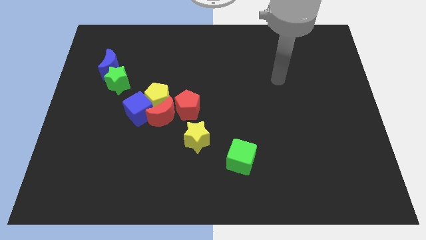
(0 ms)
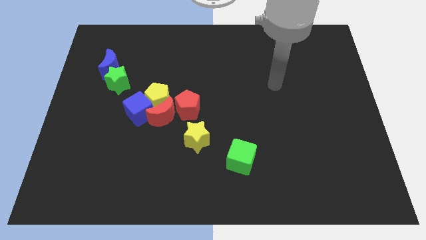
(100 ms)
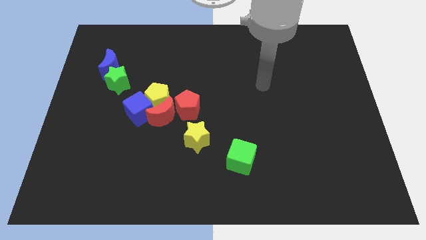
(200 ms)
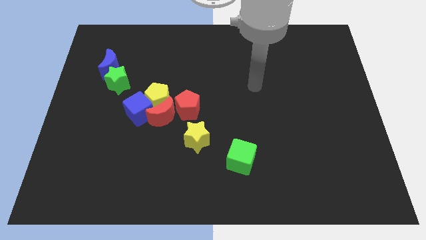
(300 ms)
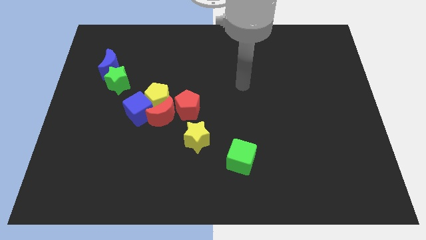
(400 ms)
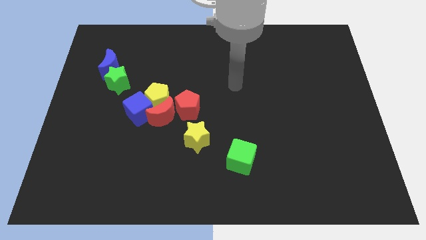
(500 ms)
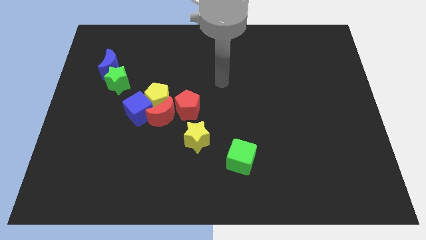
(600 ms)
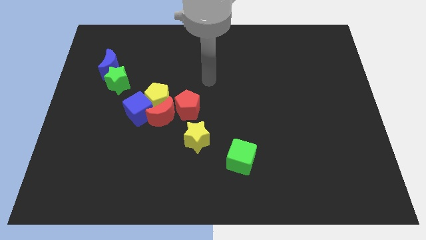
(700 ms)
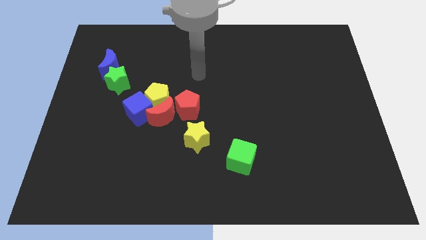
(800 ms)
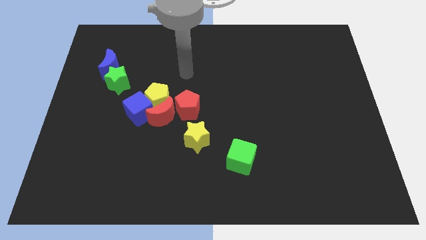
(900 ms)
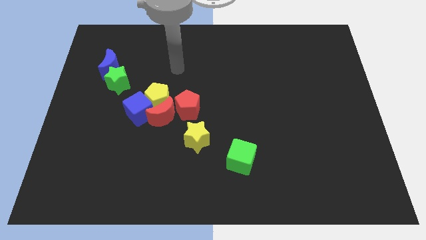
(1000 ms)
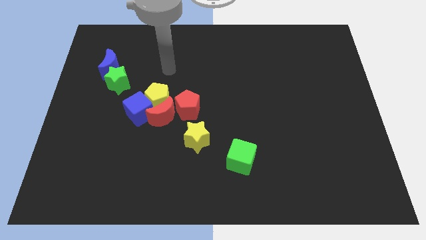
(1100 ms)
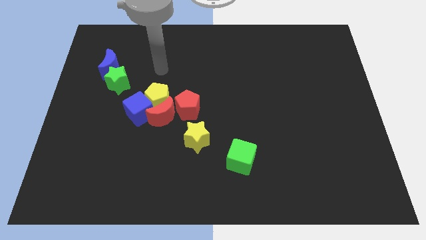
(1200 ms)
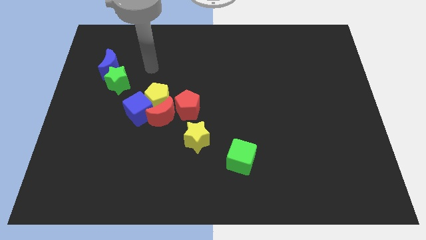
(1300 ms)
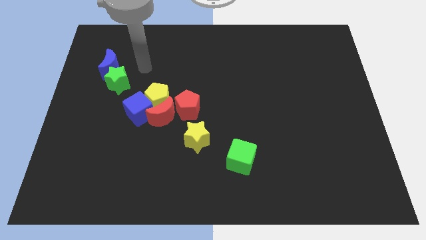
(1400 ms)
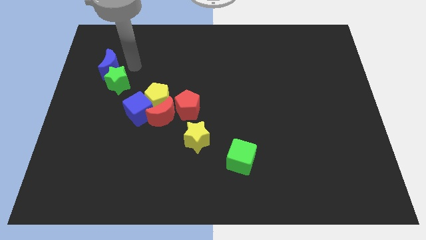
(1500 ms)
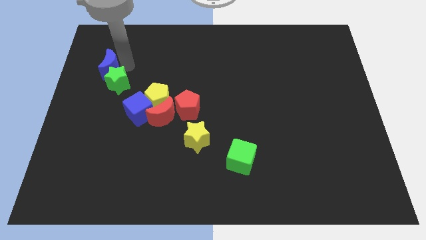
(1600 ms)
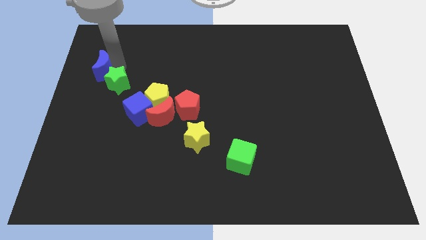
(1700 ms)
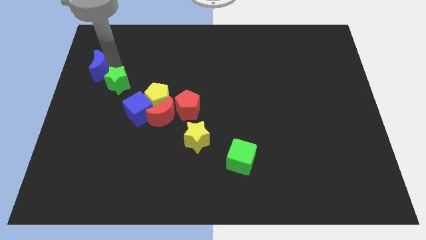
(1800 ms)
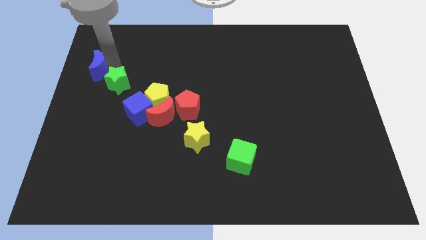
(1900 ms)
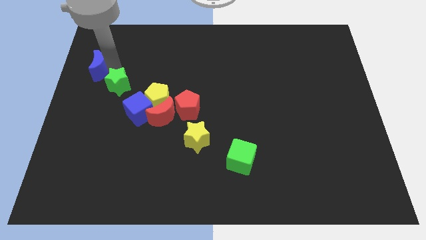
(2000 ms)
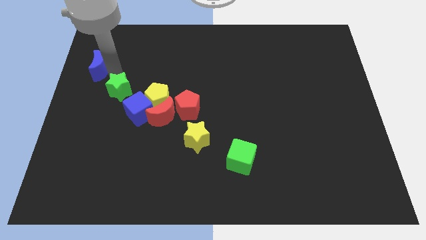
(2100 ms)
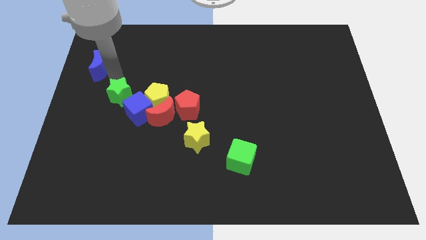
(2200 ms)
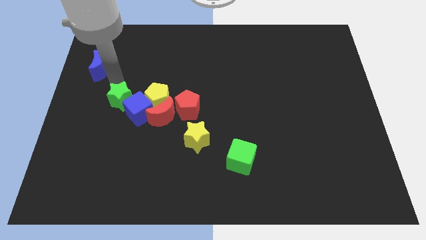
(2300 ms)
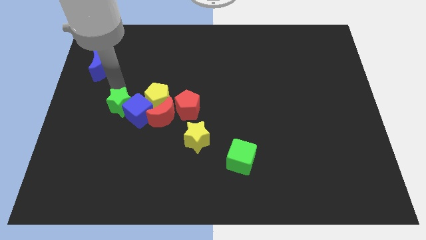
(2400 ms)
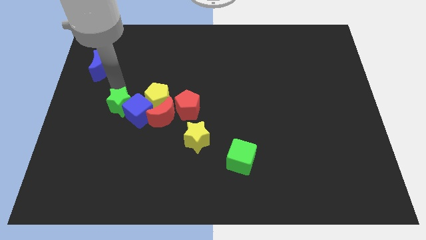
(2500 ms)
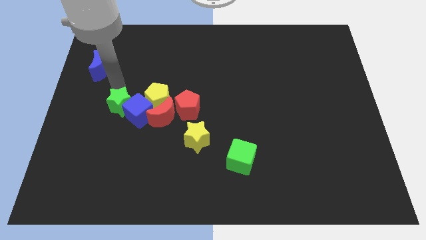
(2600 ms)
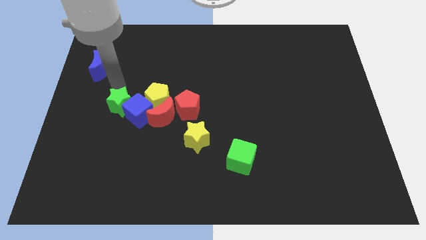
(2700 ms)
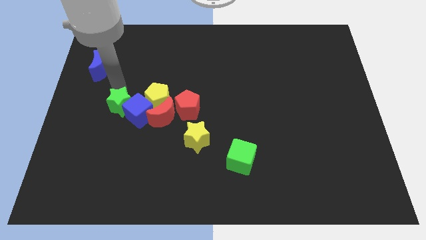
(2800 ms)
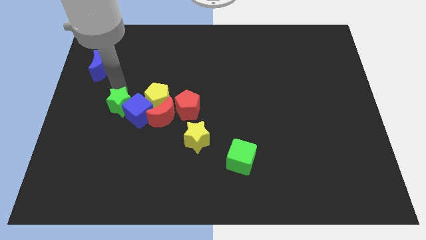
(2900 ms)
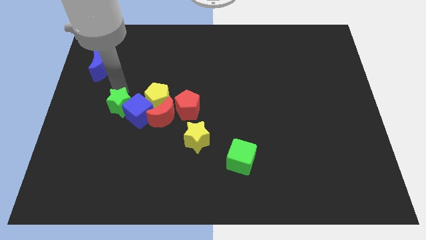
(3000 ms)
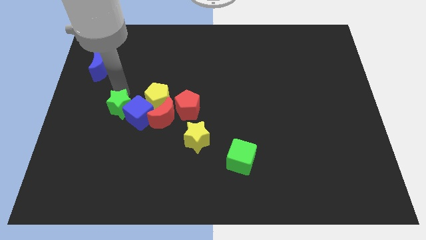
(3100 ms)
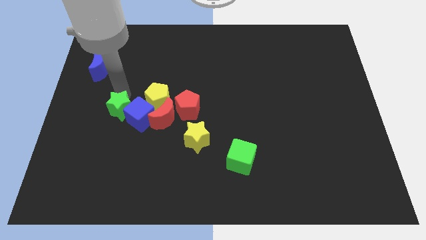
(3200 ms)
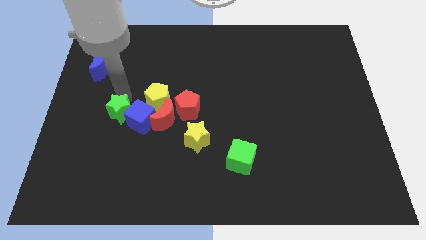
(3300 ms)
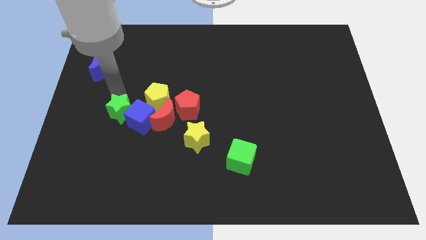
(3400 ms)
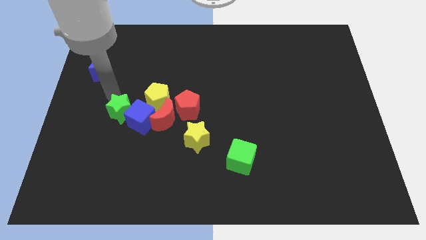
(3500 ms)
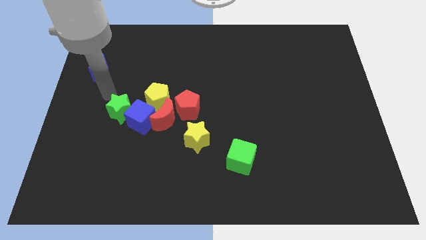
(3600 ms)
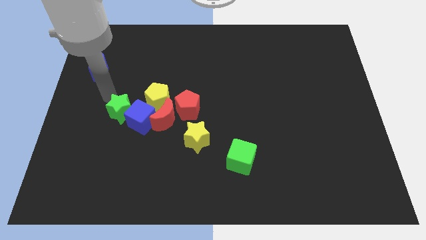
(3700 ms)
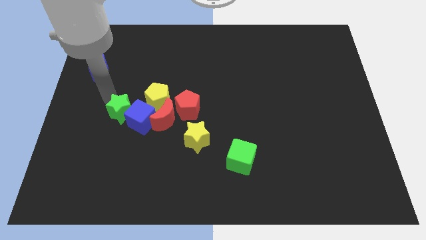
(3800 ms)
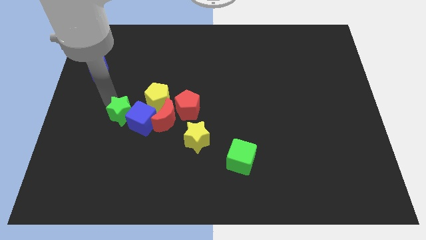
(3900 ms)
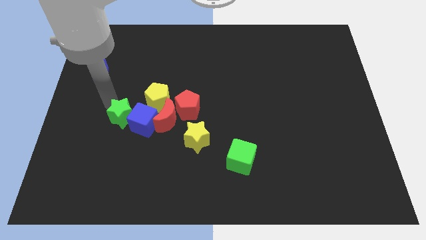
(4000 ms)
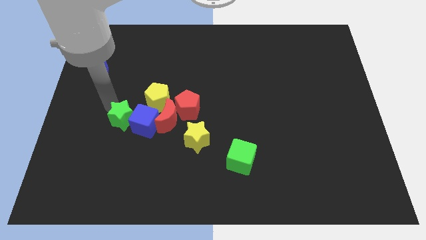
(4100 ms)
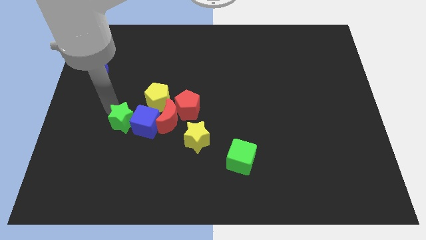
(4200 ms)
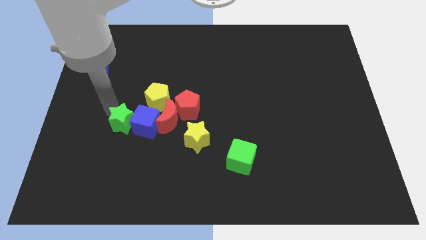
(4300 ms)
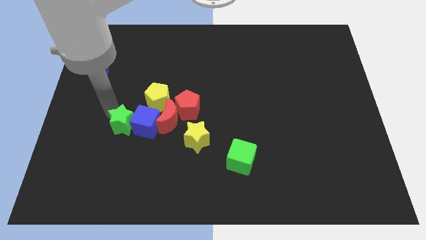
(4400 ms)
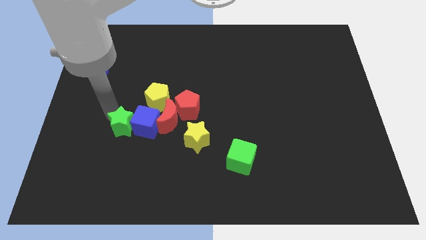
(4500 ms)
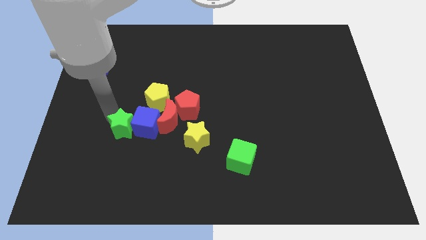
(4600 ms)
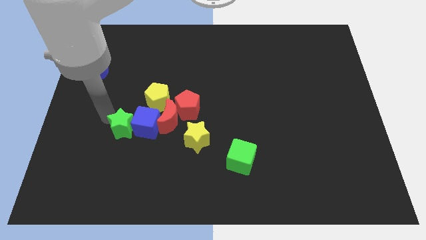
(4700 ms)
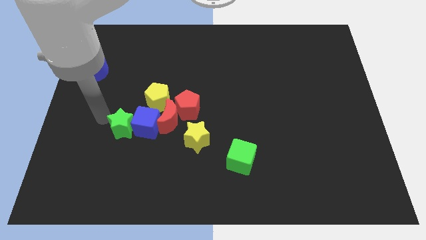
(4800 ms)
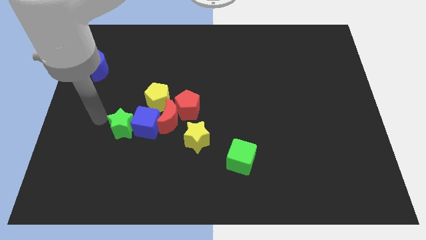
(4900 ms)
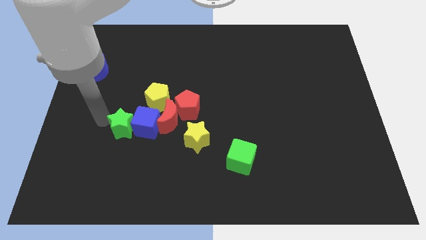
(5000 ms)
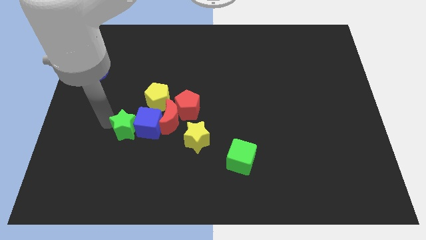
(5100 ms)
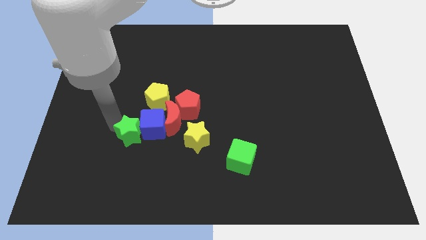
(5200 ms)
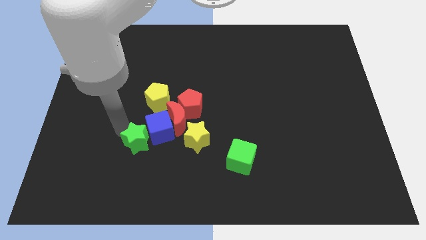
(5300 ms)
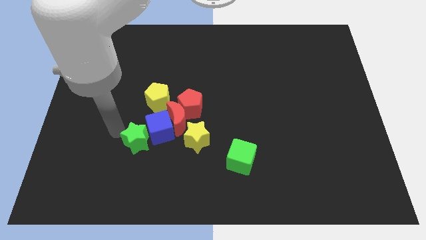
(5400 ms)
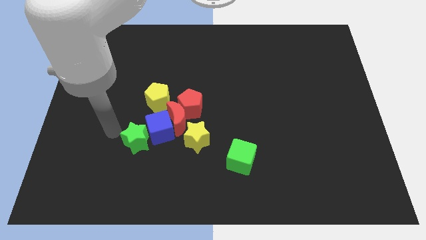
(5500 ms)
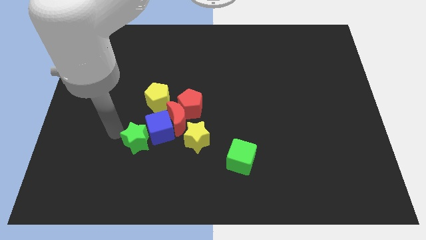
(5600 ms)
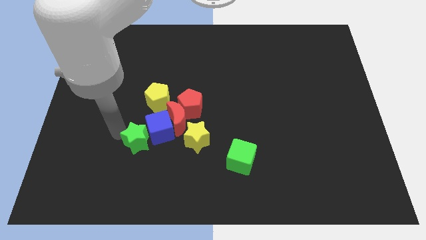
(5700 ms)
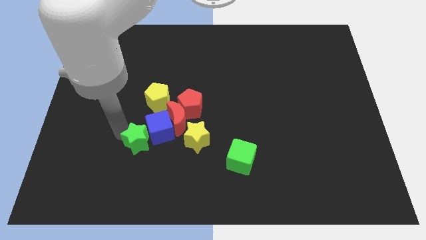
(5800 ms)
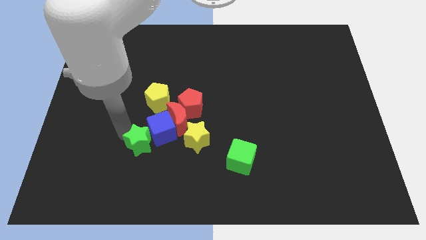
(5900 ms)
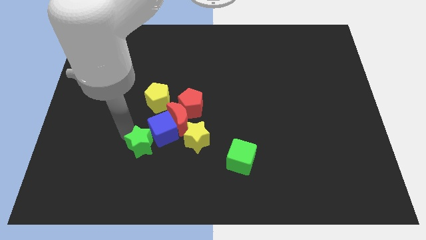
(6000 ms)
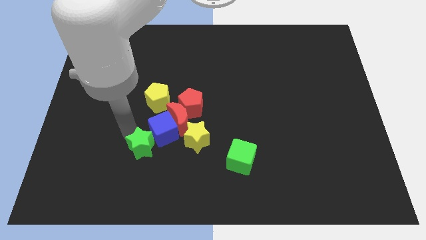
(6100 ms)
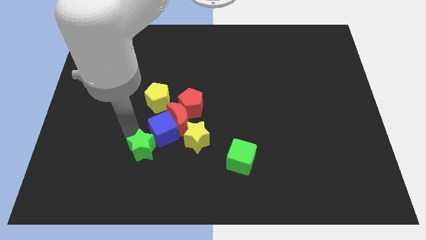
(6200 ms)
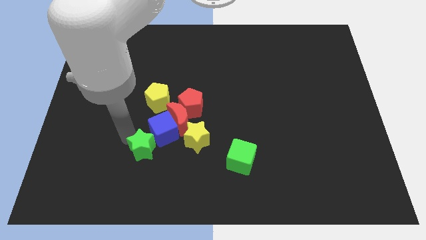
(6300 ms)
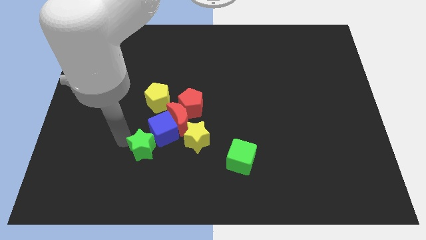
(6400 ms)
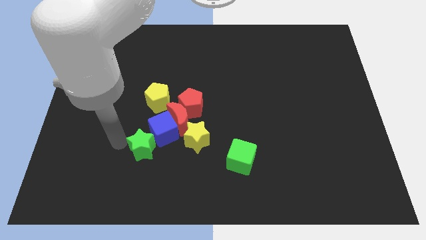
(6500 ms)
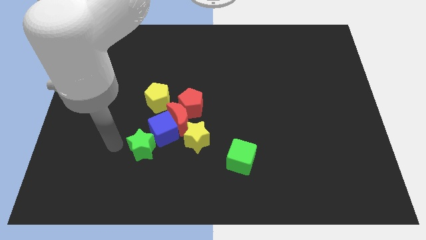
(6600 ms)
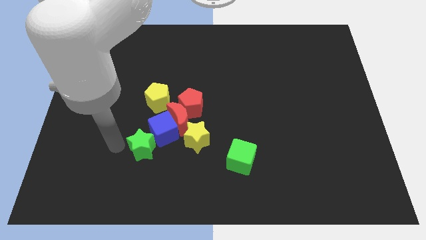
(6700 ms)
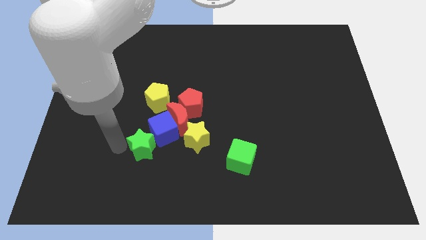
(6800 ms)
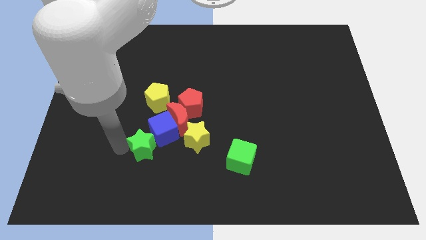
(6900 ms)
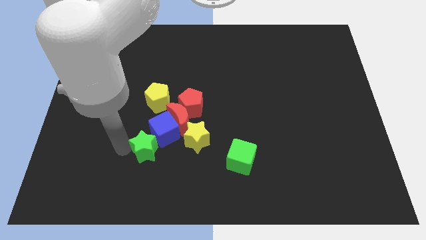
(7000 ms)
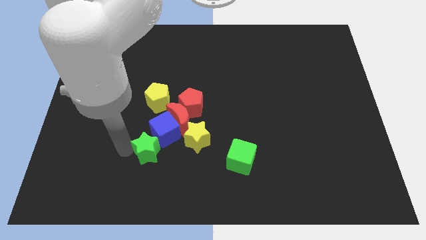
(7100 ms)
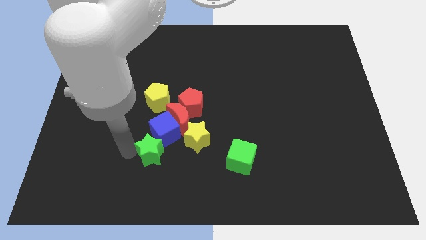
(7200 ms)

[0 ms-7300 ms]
slide the green star diagonally downwards and to the right

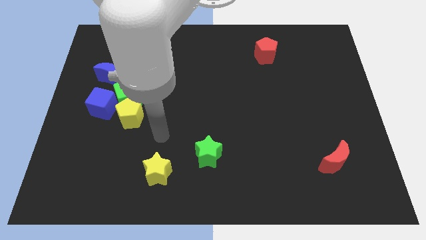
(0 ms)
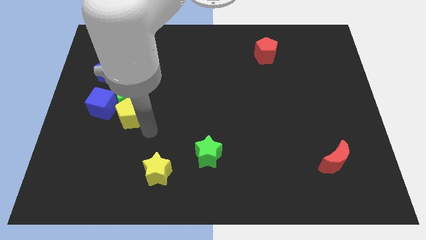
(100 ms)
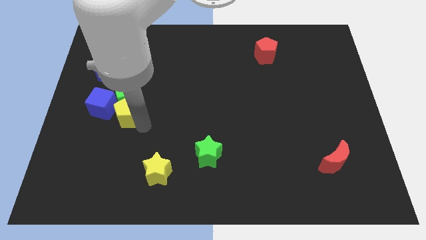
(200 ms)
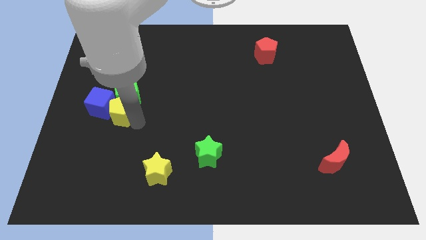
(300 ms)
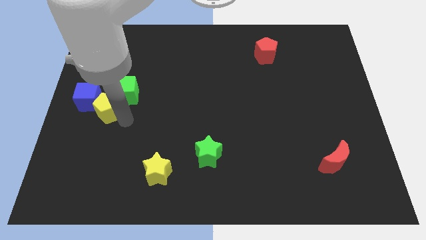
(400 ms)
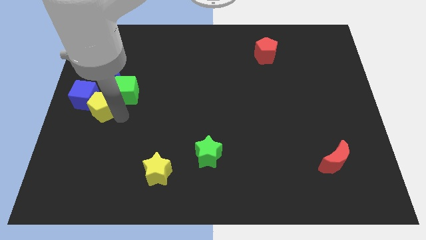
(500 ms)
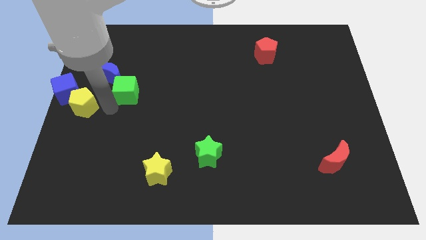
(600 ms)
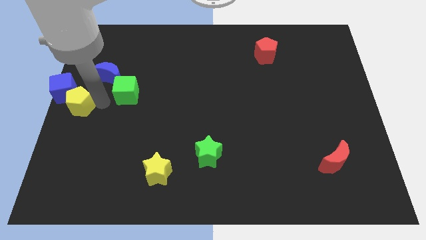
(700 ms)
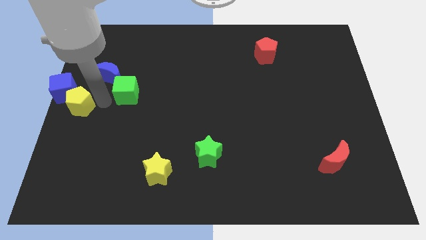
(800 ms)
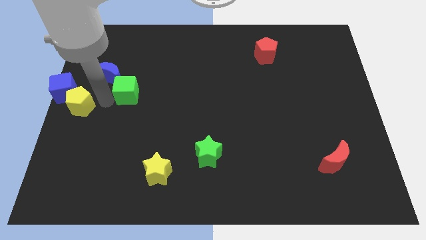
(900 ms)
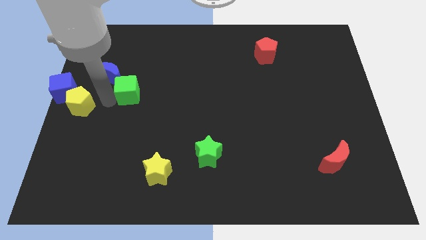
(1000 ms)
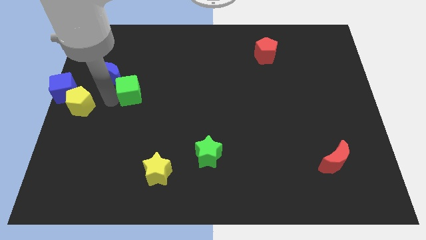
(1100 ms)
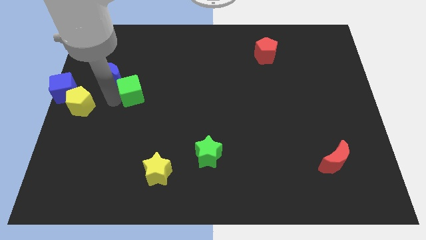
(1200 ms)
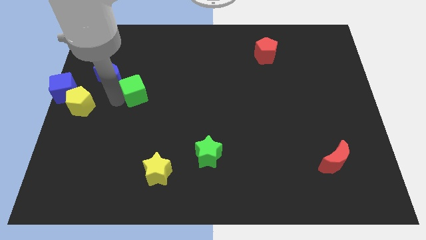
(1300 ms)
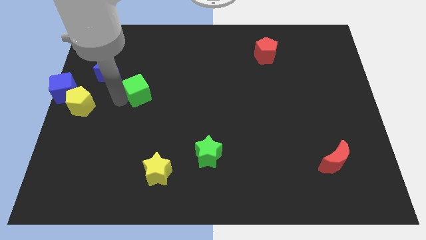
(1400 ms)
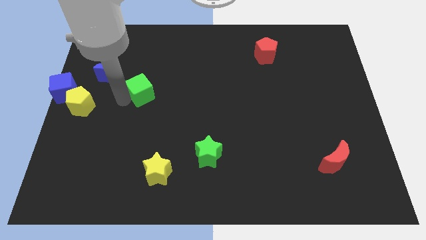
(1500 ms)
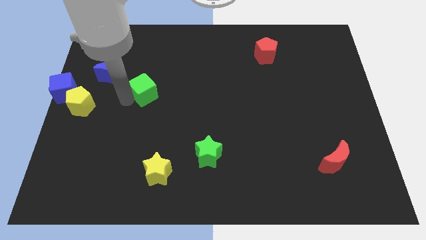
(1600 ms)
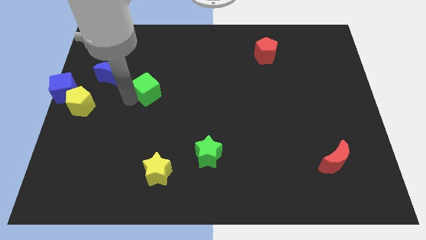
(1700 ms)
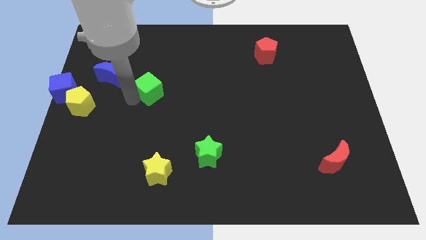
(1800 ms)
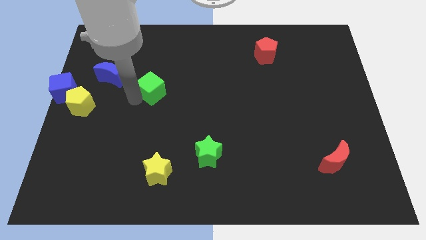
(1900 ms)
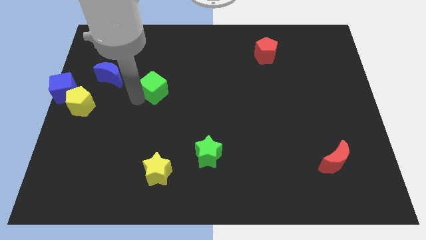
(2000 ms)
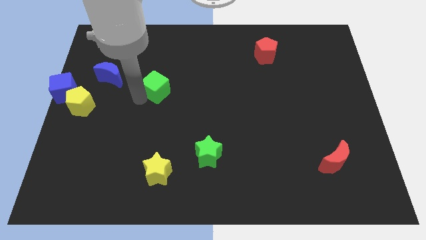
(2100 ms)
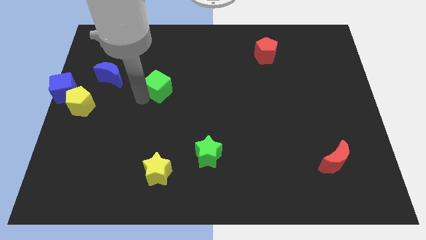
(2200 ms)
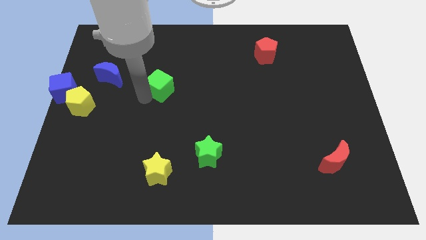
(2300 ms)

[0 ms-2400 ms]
slightly push the green cube upwards and then to the right
